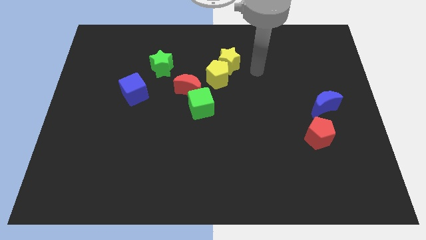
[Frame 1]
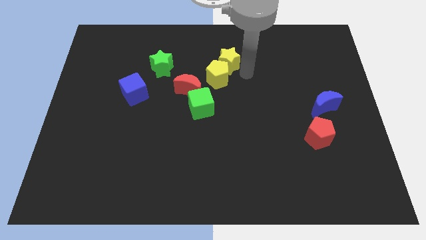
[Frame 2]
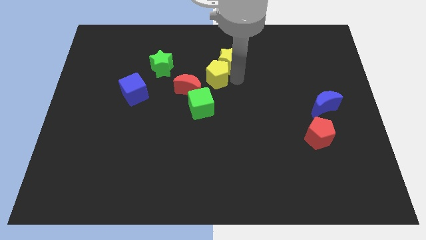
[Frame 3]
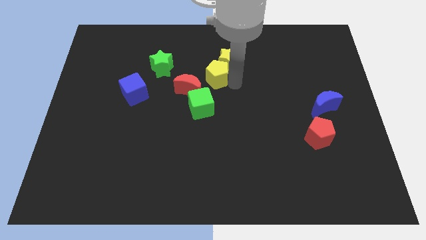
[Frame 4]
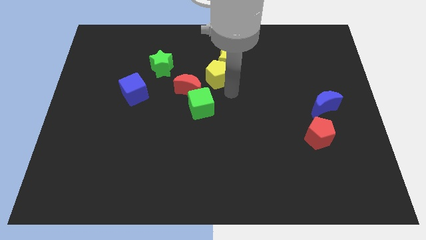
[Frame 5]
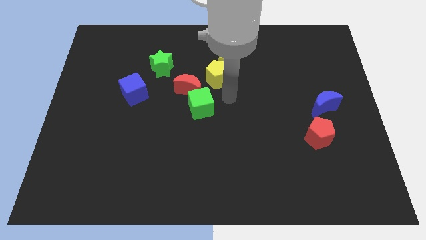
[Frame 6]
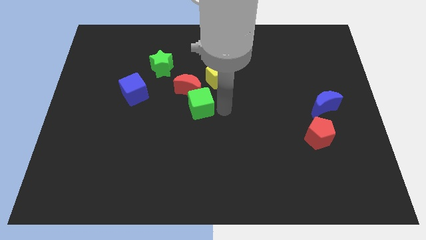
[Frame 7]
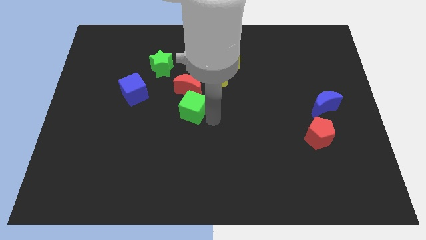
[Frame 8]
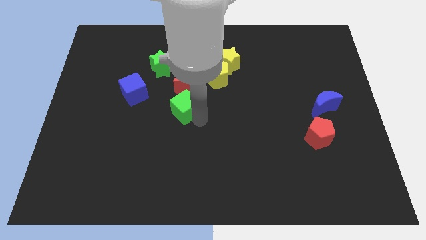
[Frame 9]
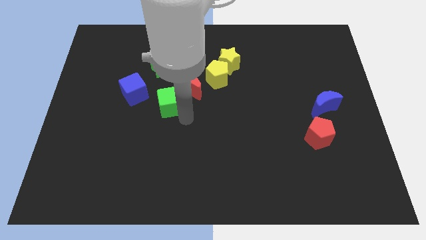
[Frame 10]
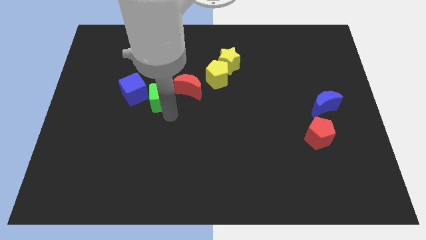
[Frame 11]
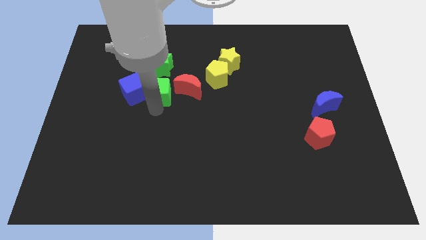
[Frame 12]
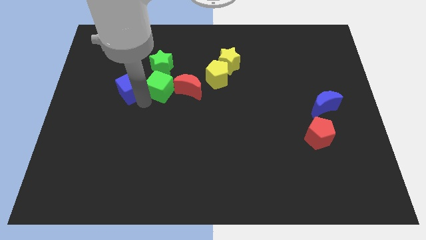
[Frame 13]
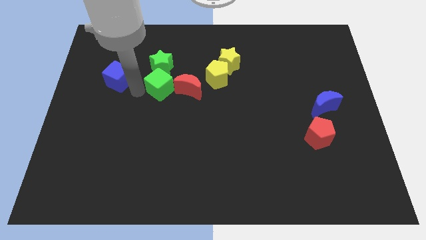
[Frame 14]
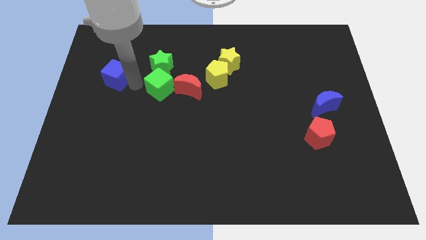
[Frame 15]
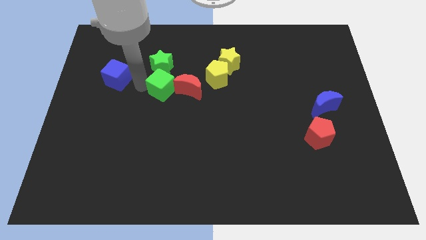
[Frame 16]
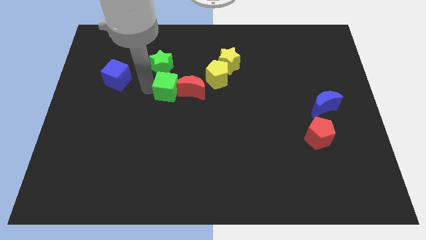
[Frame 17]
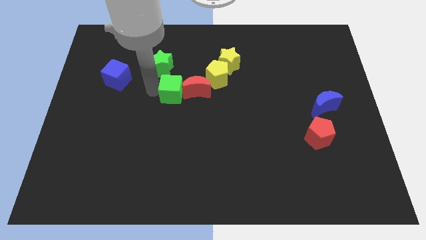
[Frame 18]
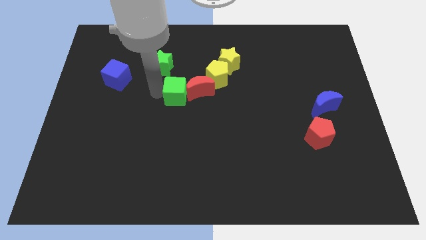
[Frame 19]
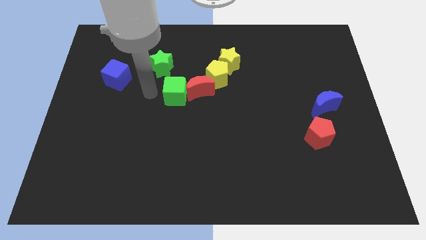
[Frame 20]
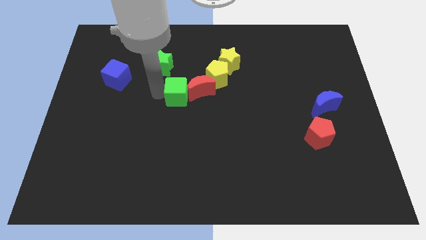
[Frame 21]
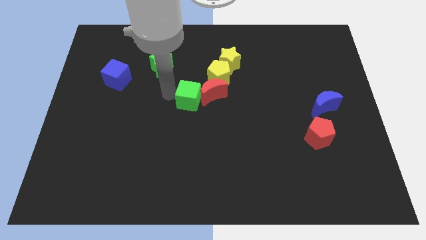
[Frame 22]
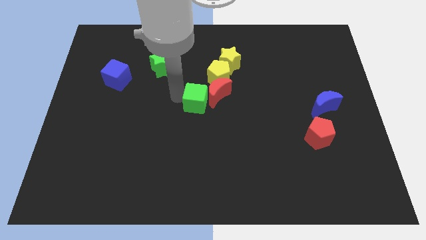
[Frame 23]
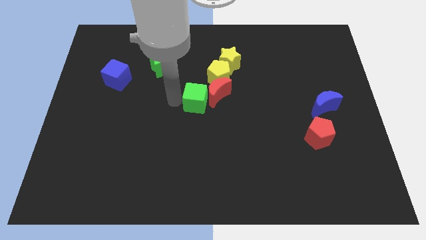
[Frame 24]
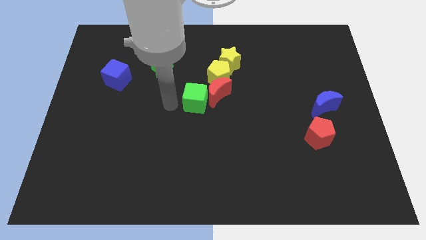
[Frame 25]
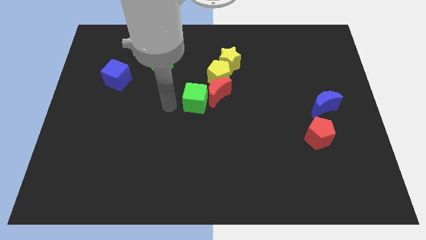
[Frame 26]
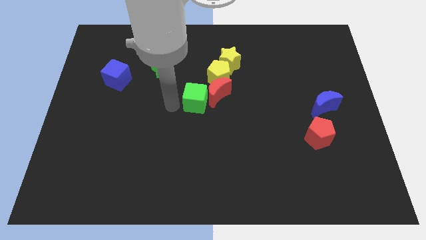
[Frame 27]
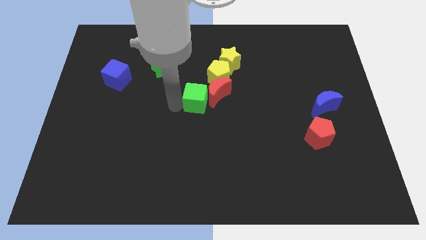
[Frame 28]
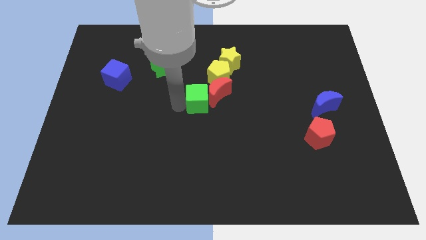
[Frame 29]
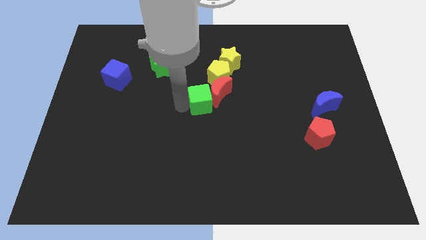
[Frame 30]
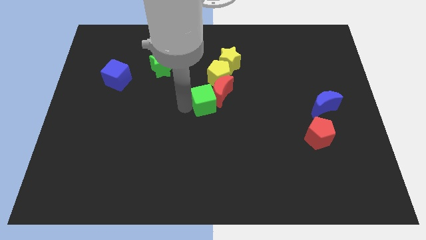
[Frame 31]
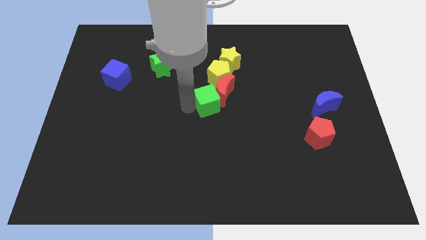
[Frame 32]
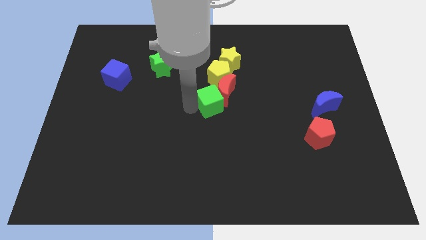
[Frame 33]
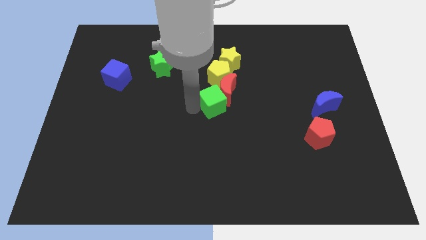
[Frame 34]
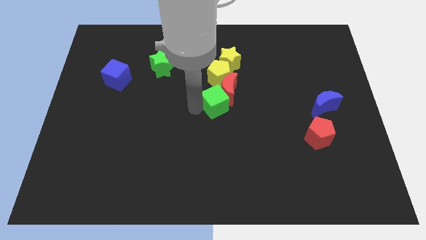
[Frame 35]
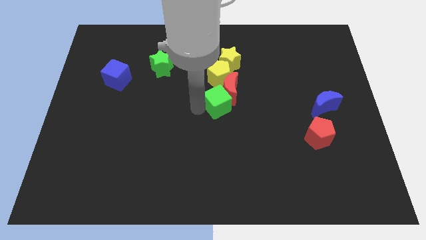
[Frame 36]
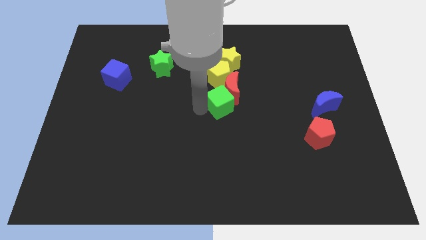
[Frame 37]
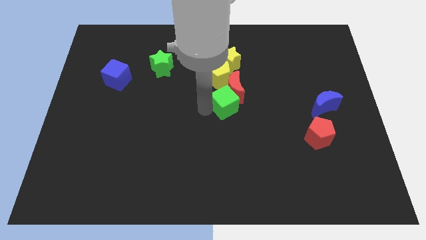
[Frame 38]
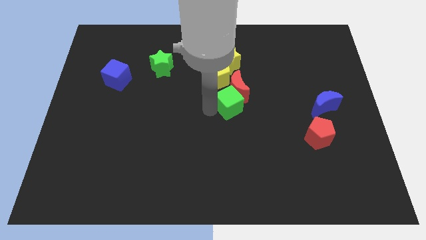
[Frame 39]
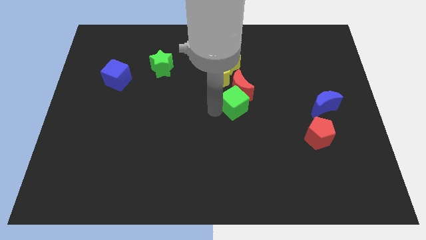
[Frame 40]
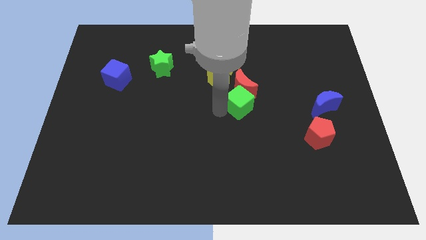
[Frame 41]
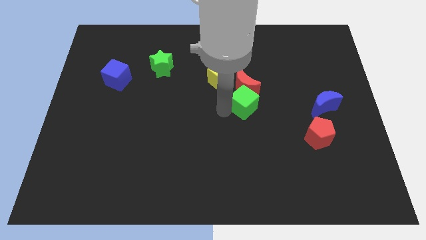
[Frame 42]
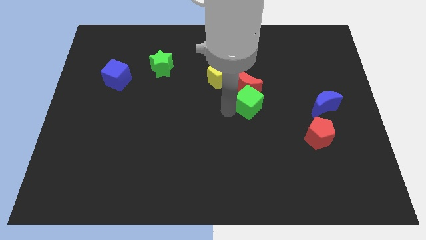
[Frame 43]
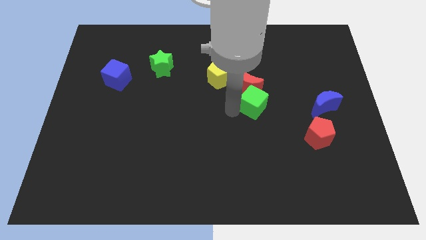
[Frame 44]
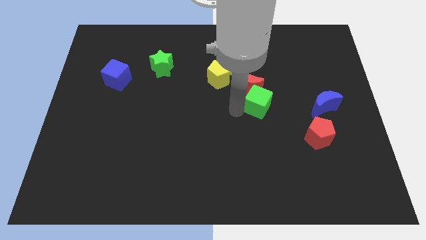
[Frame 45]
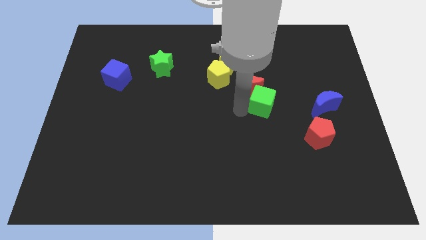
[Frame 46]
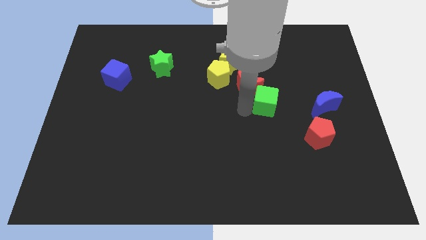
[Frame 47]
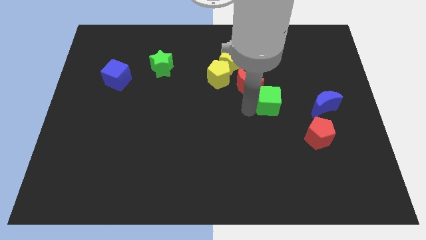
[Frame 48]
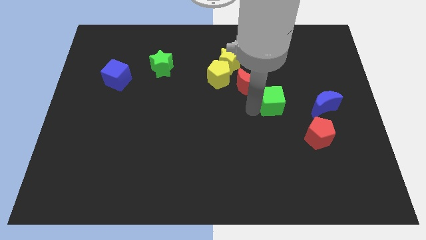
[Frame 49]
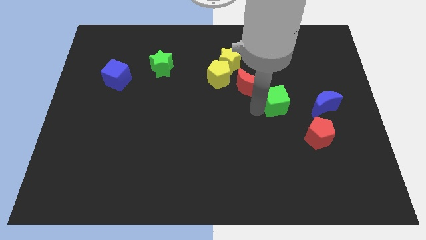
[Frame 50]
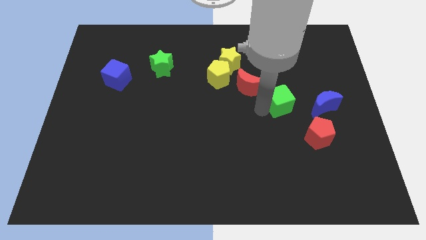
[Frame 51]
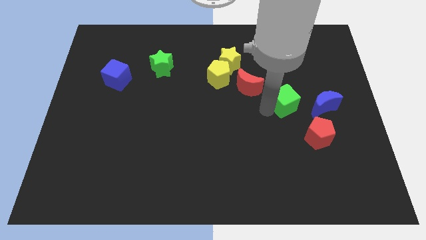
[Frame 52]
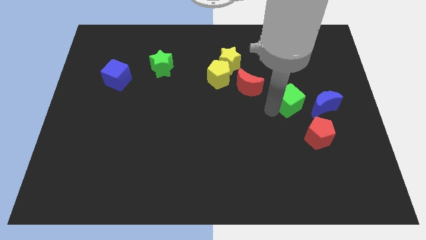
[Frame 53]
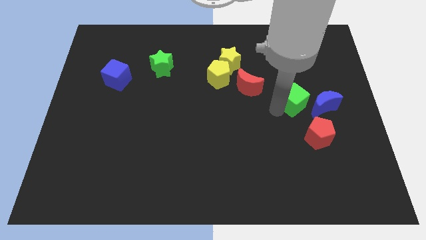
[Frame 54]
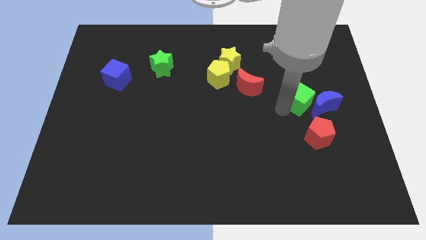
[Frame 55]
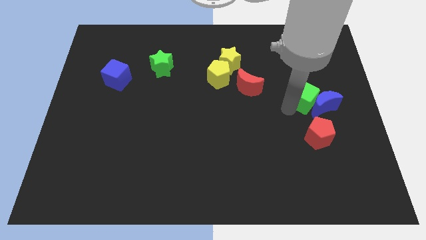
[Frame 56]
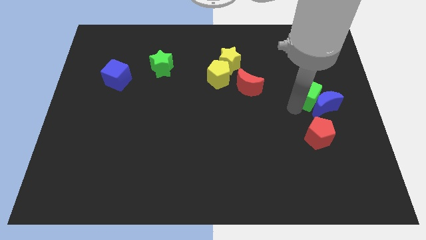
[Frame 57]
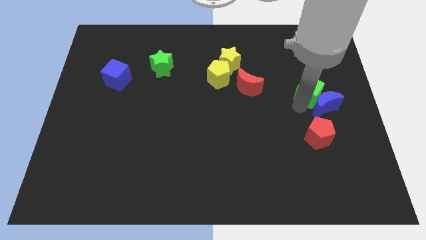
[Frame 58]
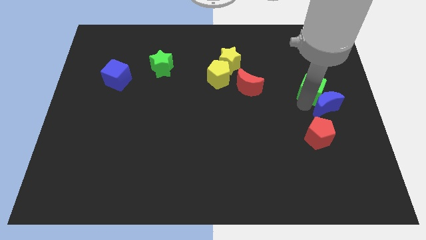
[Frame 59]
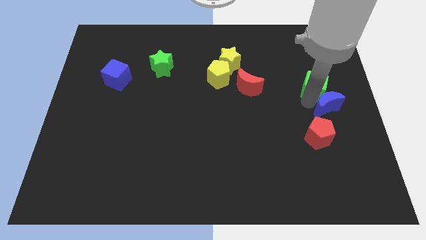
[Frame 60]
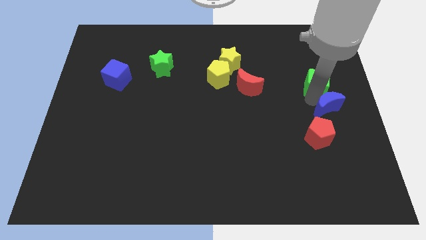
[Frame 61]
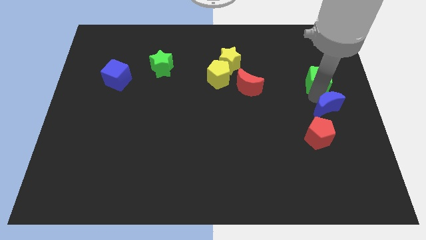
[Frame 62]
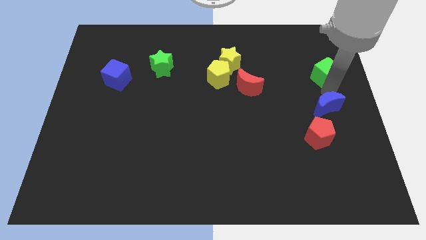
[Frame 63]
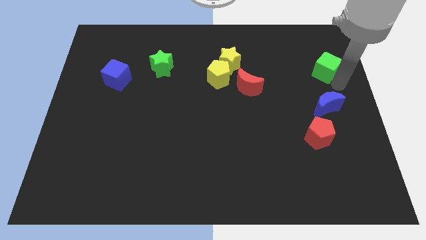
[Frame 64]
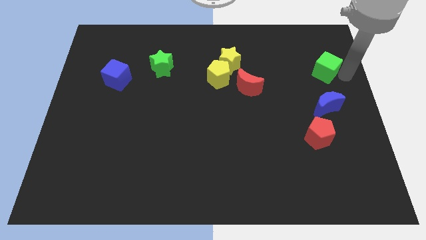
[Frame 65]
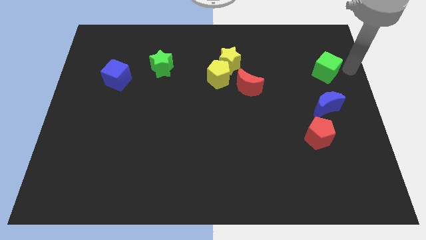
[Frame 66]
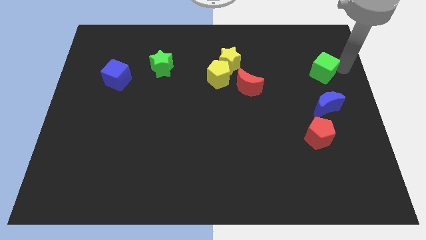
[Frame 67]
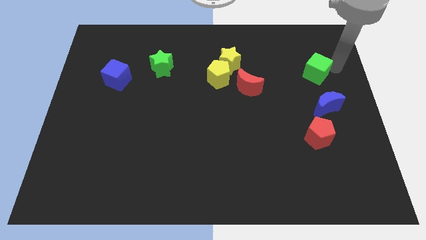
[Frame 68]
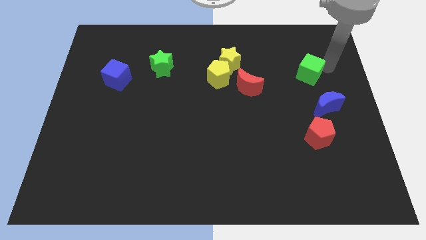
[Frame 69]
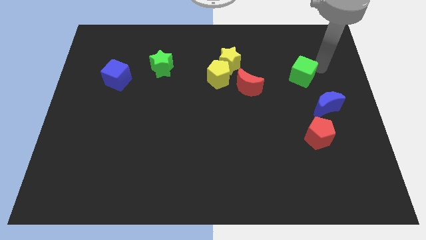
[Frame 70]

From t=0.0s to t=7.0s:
slightly slide the green cube upwards and to the right diagonally

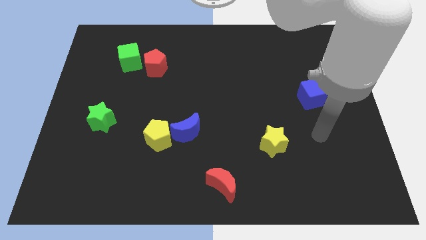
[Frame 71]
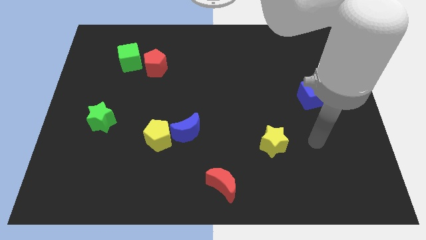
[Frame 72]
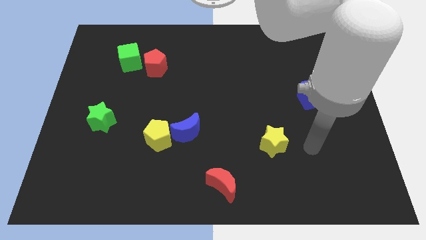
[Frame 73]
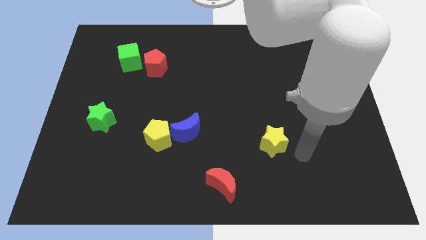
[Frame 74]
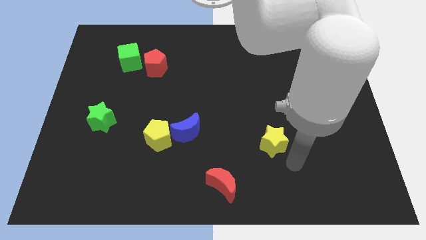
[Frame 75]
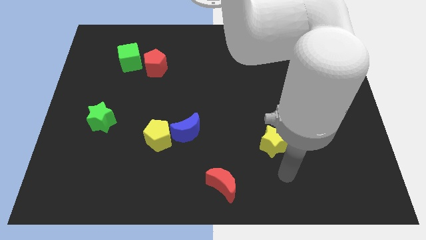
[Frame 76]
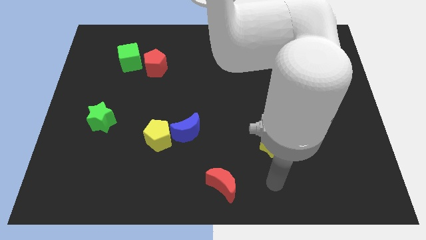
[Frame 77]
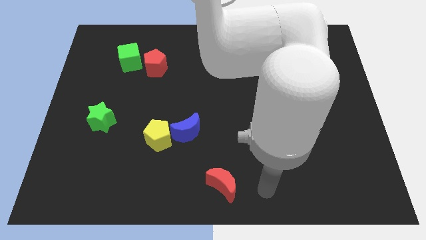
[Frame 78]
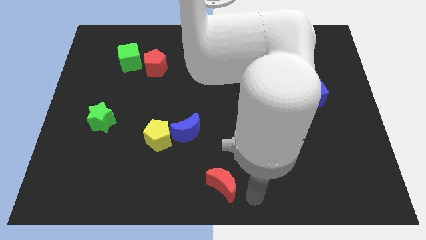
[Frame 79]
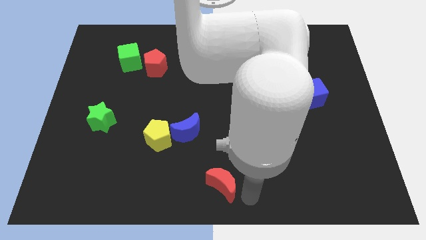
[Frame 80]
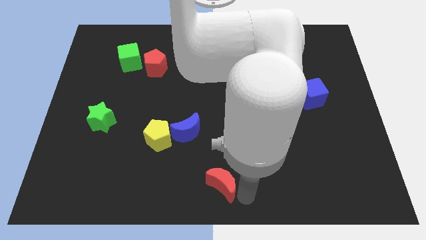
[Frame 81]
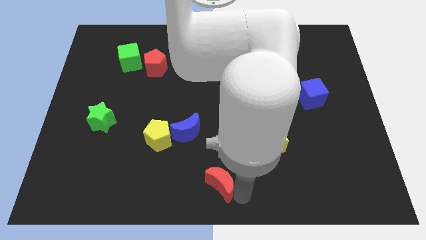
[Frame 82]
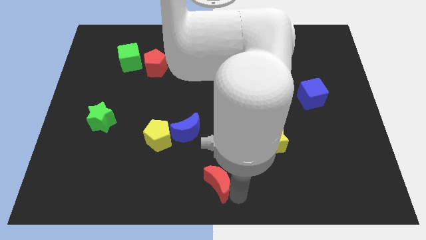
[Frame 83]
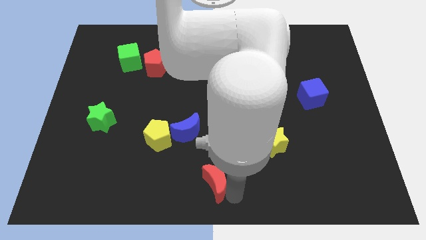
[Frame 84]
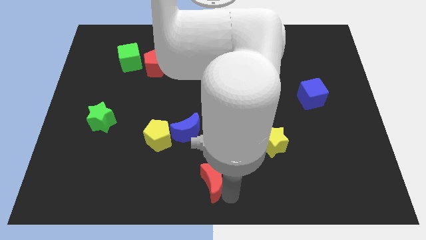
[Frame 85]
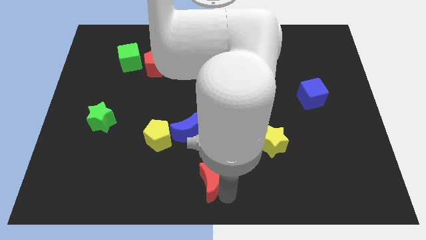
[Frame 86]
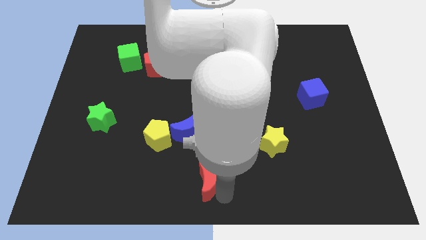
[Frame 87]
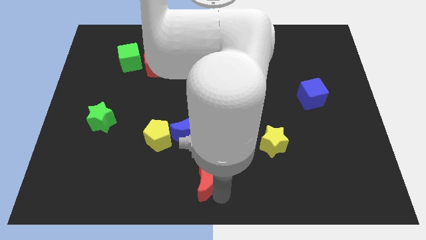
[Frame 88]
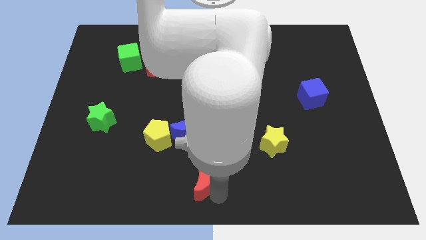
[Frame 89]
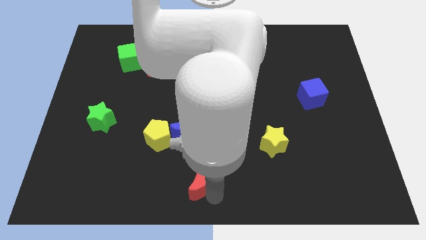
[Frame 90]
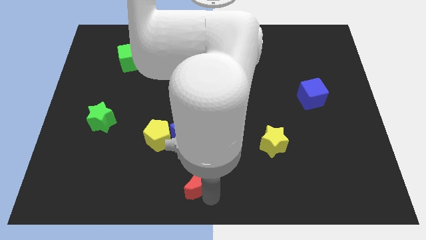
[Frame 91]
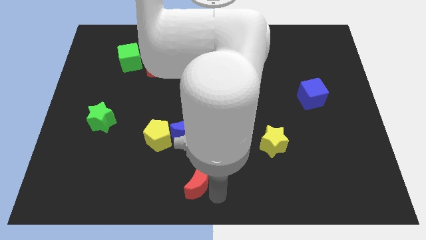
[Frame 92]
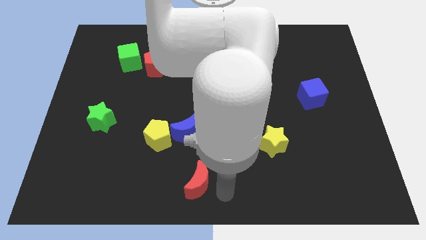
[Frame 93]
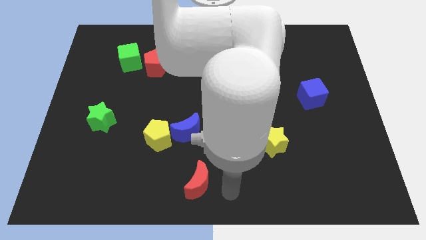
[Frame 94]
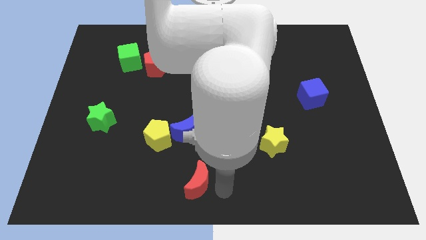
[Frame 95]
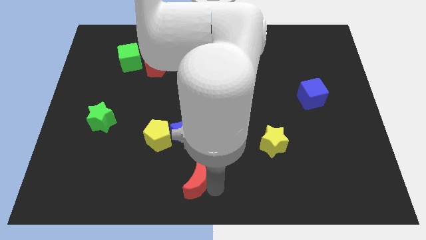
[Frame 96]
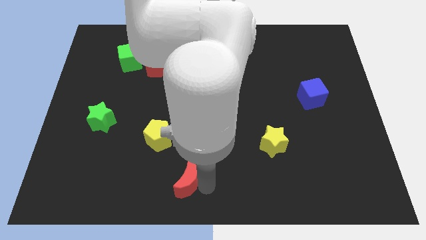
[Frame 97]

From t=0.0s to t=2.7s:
slide the red moon a little to the left
